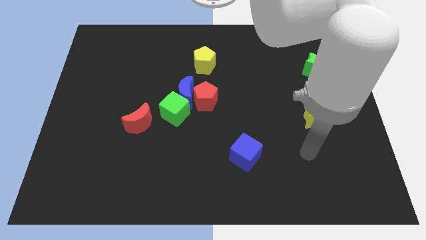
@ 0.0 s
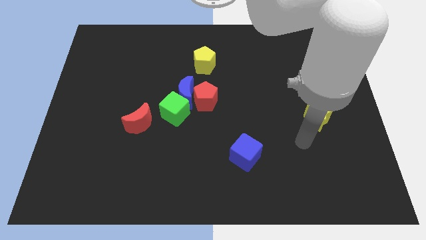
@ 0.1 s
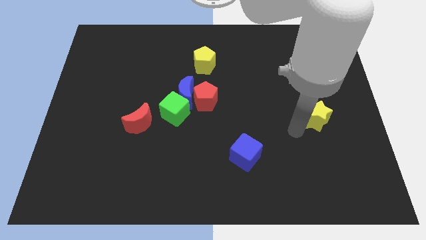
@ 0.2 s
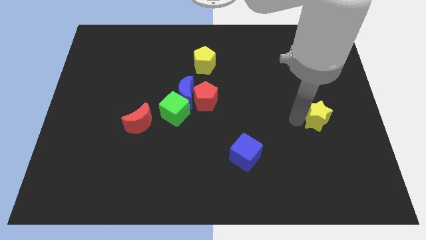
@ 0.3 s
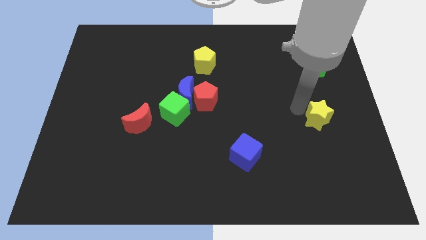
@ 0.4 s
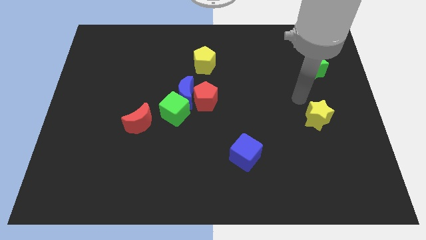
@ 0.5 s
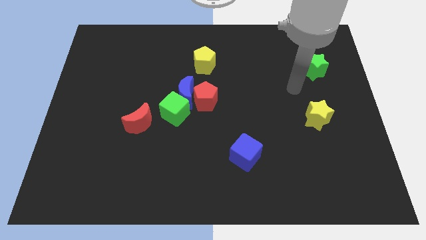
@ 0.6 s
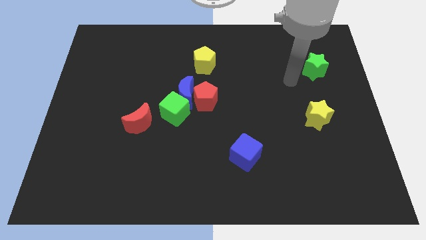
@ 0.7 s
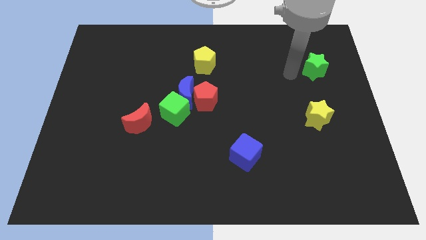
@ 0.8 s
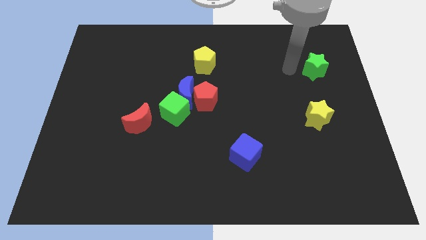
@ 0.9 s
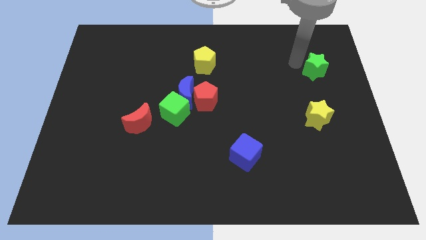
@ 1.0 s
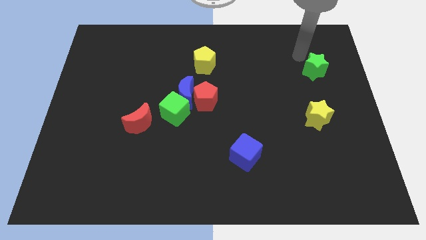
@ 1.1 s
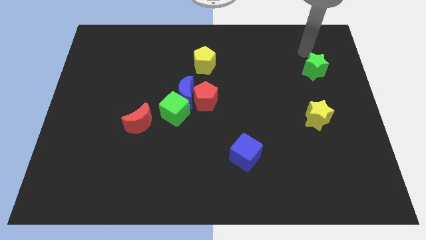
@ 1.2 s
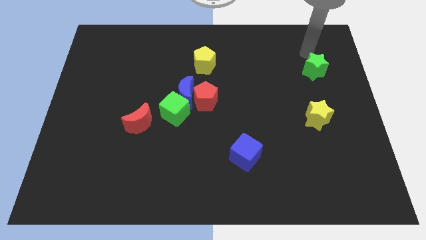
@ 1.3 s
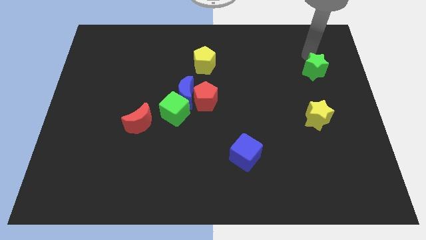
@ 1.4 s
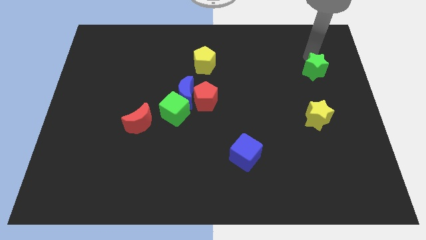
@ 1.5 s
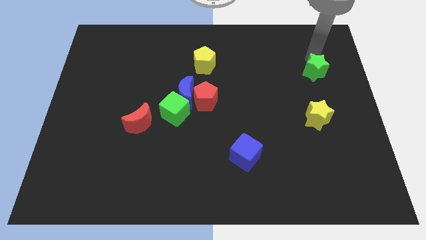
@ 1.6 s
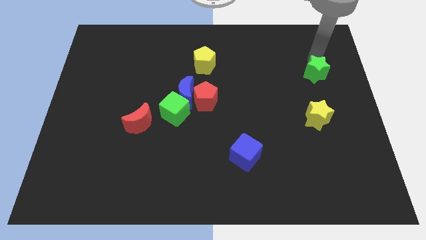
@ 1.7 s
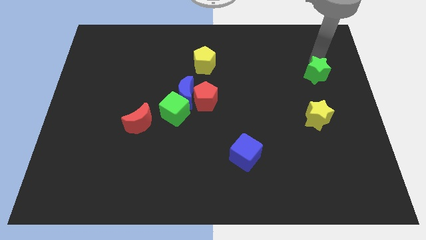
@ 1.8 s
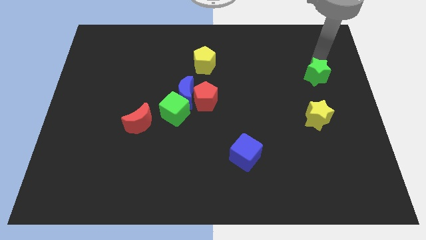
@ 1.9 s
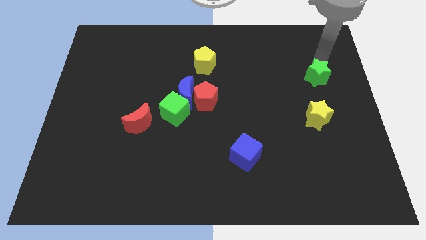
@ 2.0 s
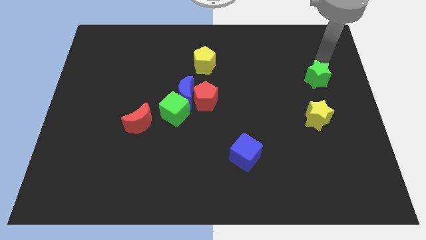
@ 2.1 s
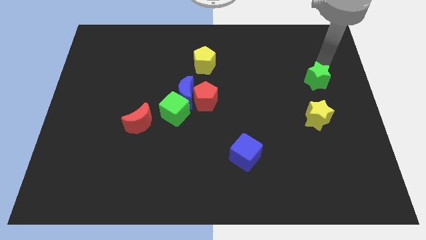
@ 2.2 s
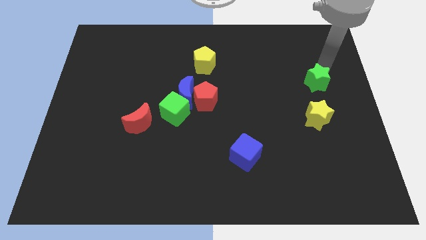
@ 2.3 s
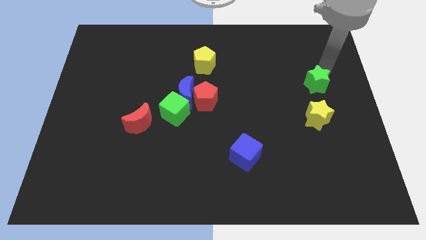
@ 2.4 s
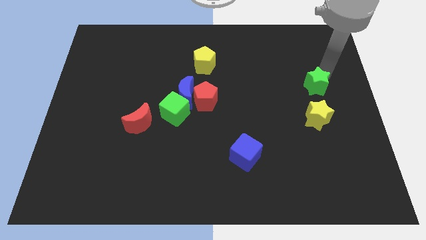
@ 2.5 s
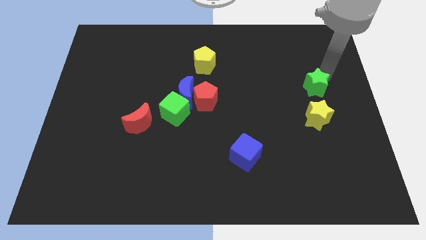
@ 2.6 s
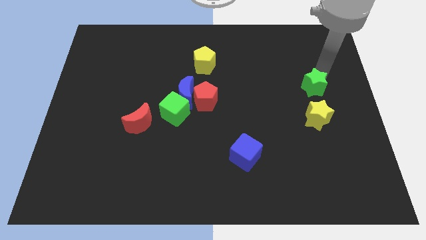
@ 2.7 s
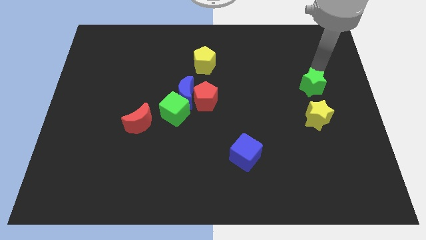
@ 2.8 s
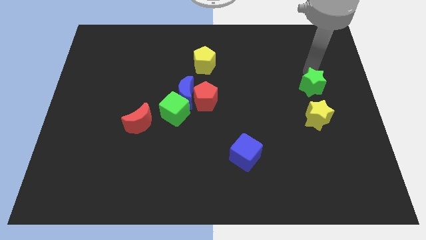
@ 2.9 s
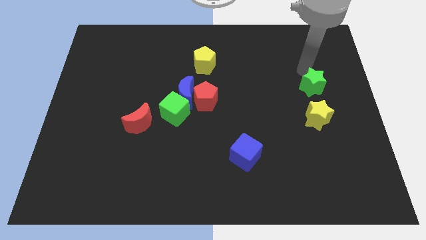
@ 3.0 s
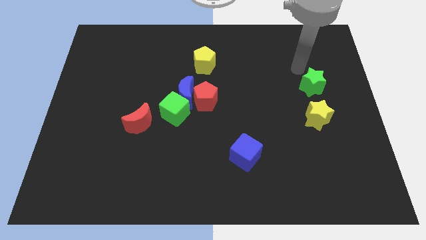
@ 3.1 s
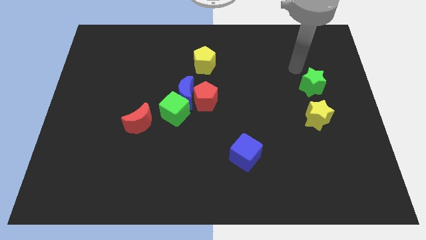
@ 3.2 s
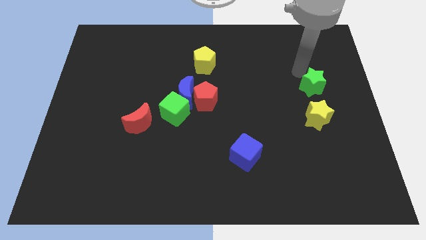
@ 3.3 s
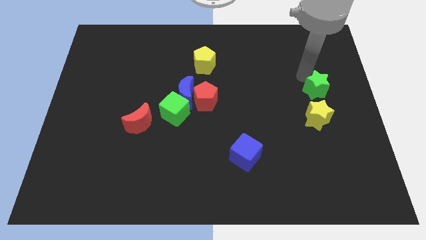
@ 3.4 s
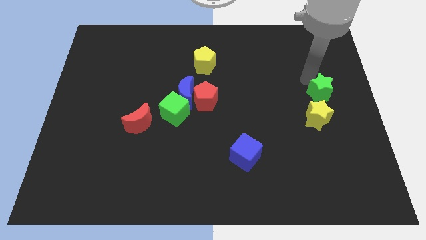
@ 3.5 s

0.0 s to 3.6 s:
slide the green star a little downwards

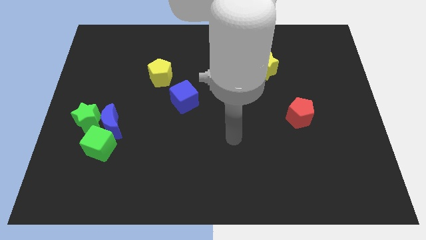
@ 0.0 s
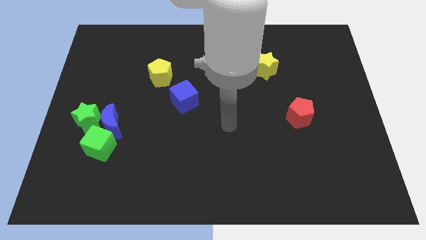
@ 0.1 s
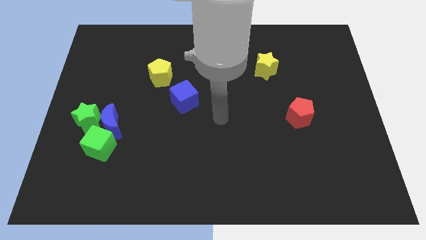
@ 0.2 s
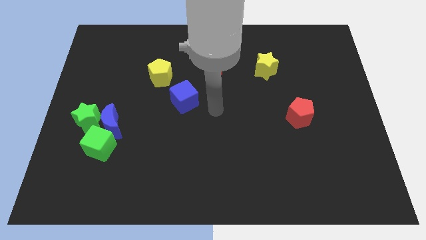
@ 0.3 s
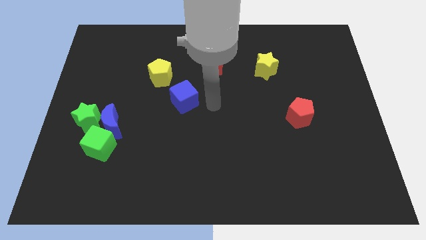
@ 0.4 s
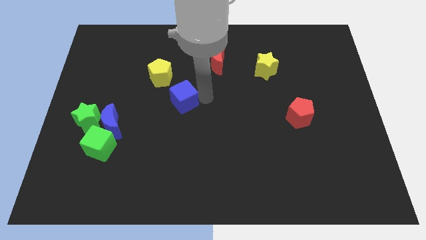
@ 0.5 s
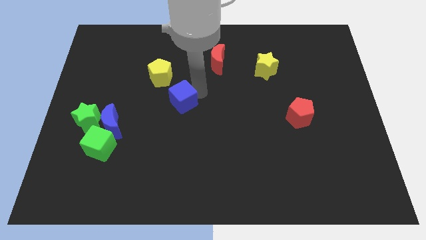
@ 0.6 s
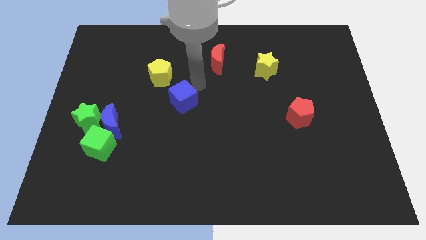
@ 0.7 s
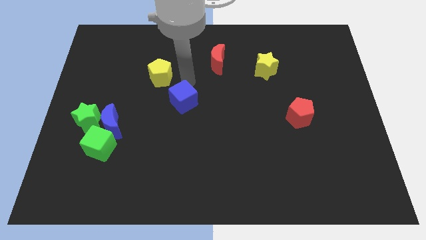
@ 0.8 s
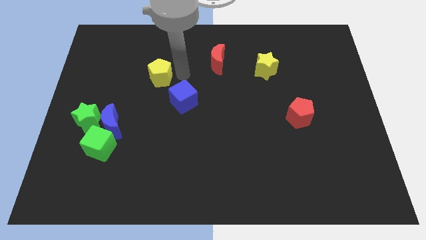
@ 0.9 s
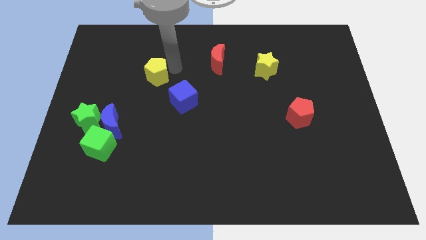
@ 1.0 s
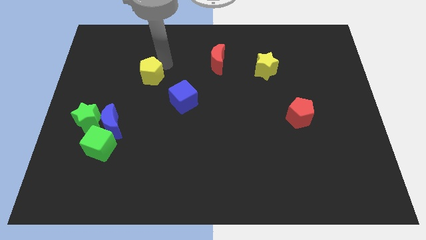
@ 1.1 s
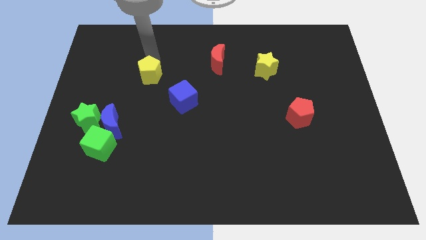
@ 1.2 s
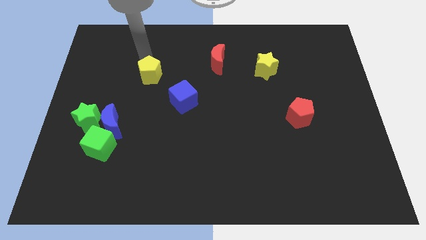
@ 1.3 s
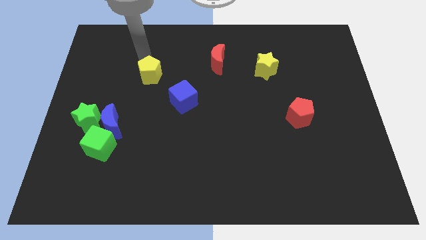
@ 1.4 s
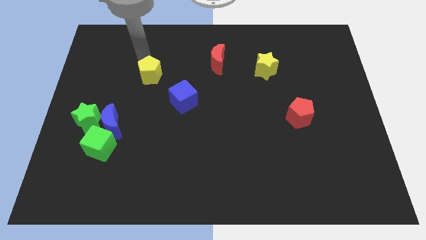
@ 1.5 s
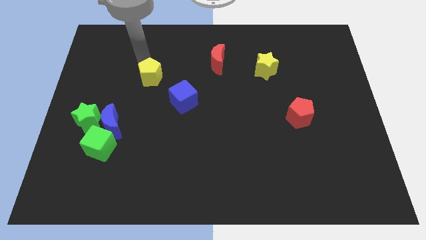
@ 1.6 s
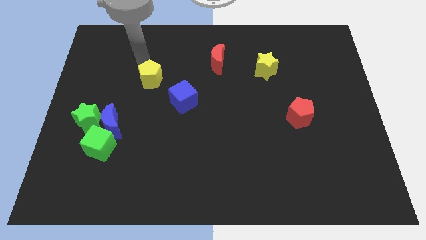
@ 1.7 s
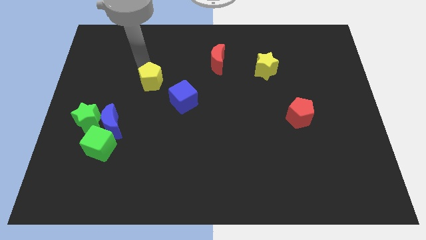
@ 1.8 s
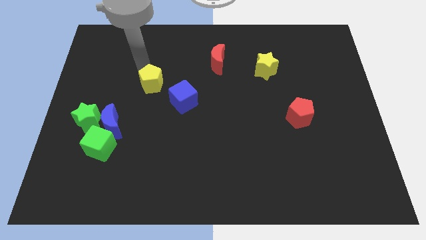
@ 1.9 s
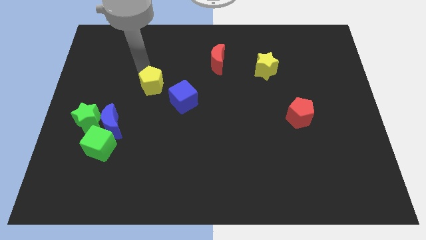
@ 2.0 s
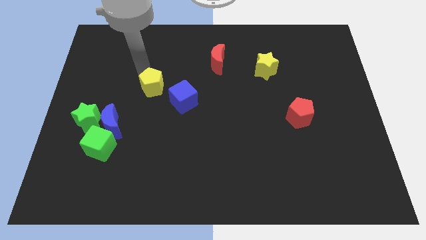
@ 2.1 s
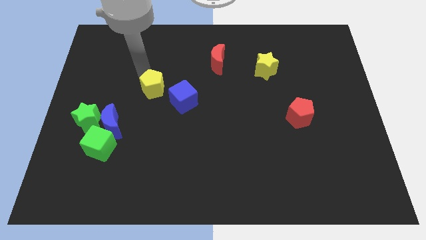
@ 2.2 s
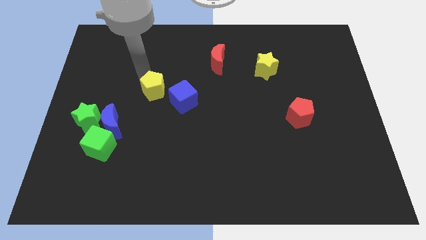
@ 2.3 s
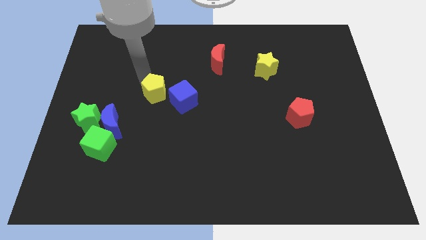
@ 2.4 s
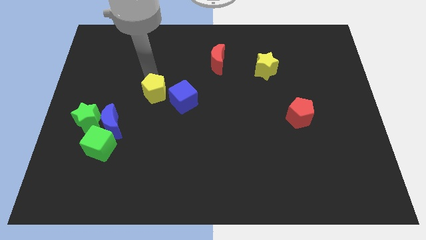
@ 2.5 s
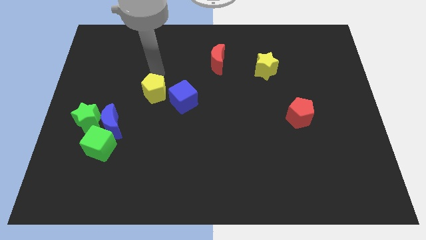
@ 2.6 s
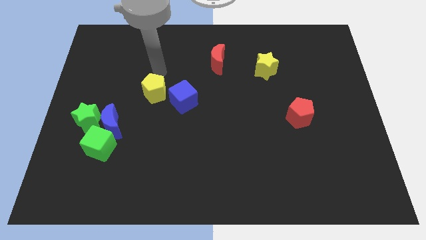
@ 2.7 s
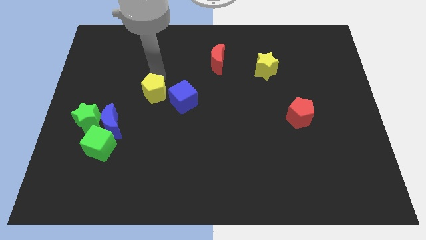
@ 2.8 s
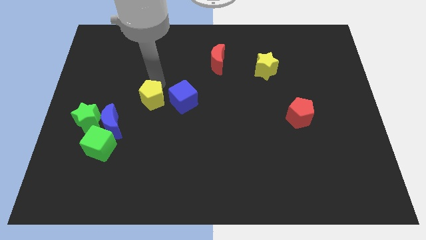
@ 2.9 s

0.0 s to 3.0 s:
push the yellow pentagon downwards slightly

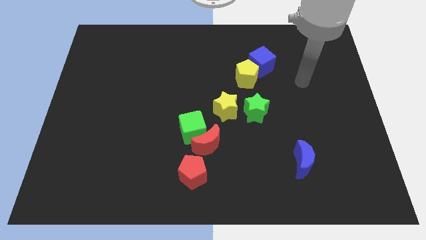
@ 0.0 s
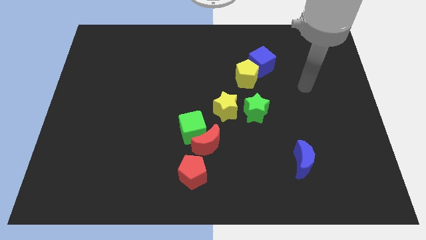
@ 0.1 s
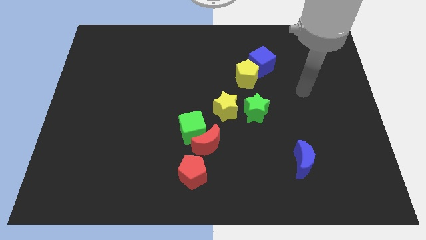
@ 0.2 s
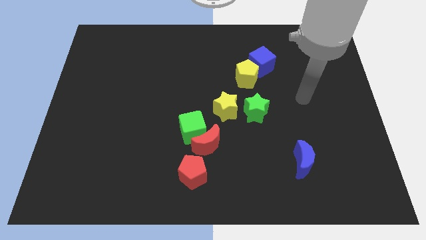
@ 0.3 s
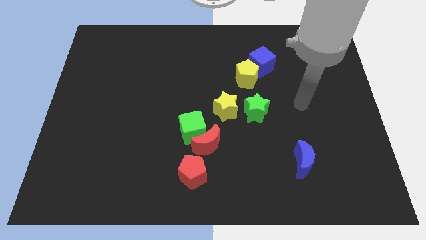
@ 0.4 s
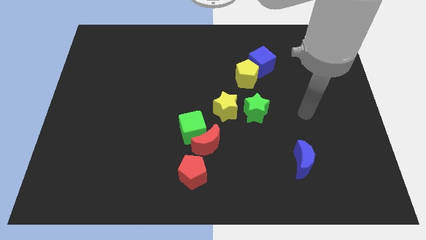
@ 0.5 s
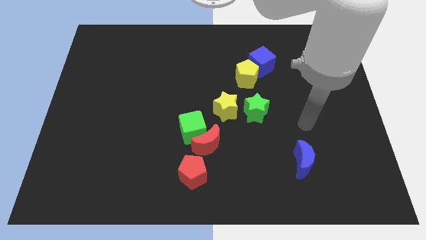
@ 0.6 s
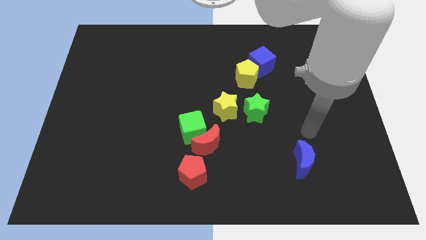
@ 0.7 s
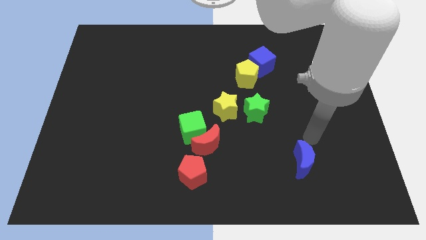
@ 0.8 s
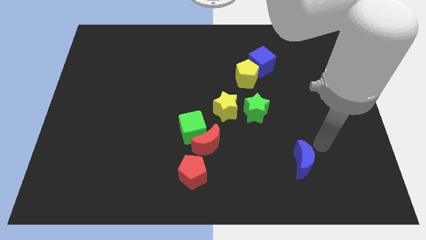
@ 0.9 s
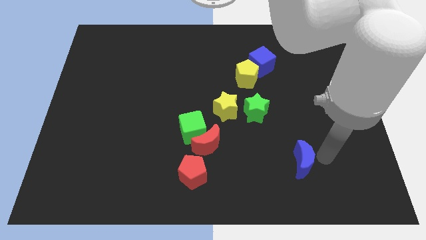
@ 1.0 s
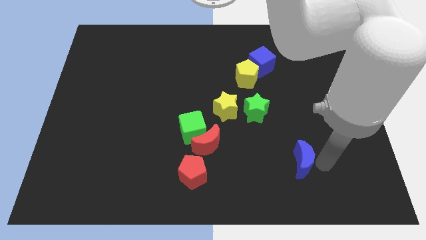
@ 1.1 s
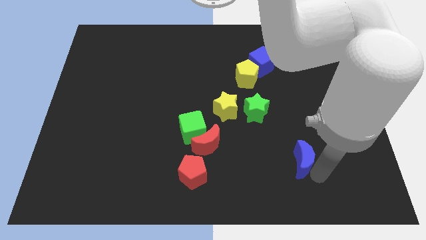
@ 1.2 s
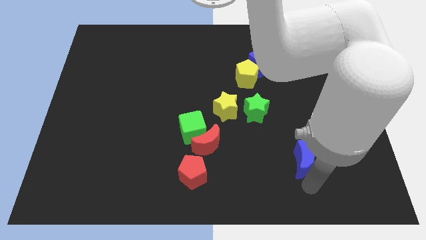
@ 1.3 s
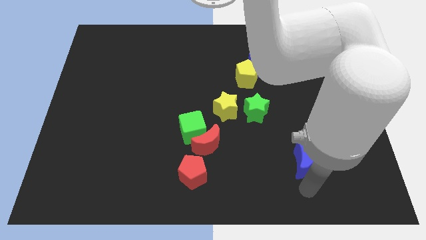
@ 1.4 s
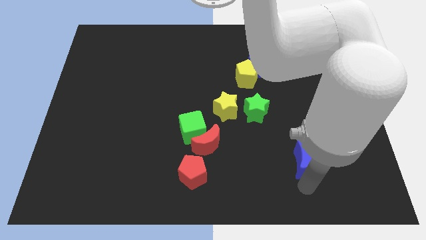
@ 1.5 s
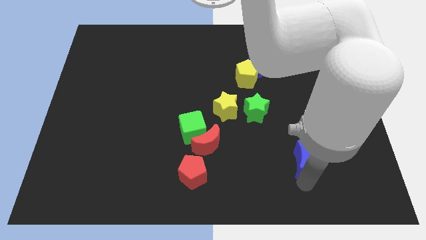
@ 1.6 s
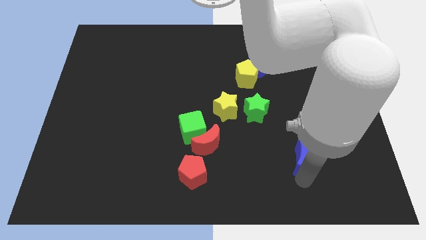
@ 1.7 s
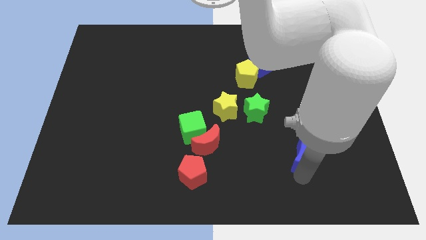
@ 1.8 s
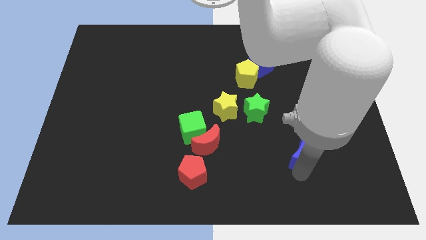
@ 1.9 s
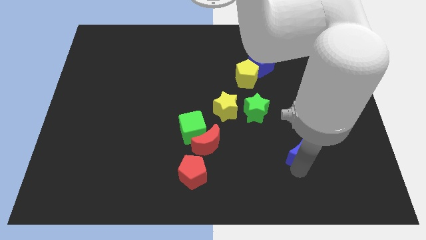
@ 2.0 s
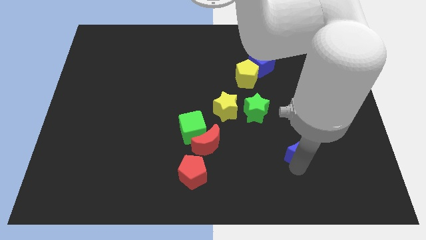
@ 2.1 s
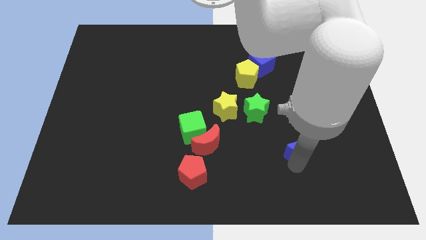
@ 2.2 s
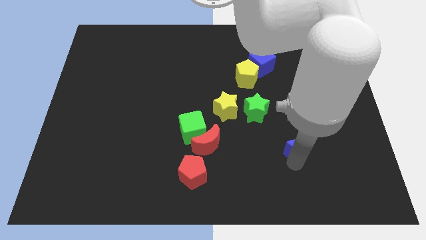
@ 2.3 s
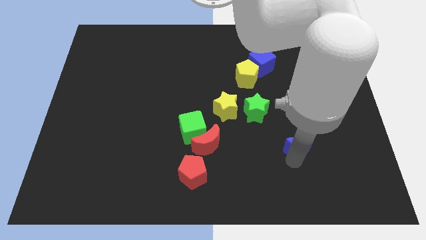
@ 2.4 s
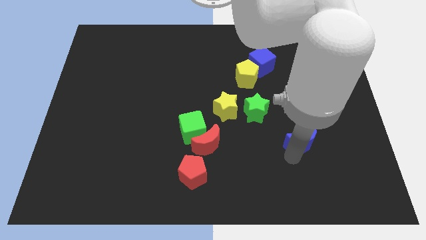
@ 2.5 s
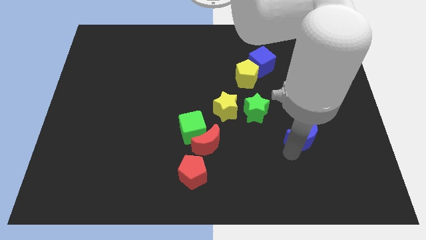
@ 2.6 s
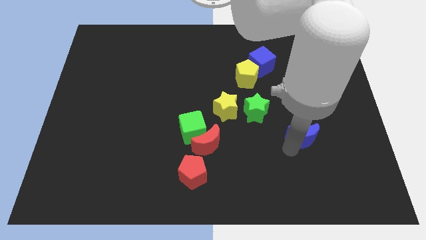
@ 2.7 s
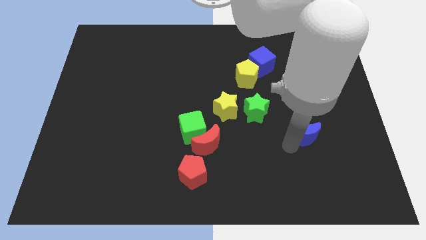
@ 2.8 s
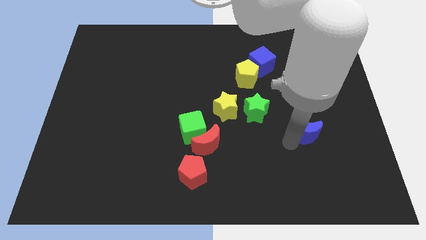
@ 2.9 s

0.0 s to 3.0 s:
slightly move the blue moon up
